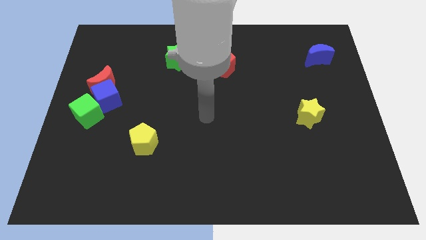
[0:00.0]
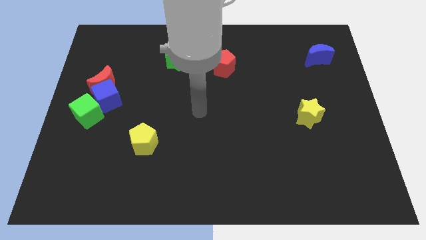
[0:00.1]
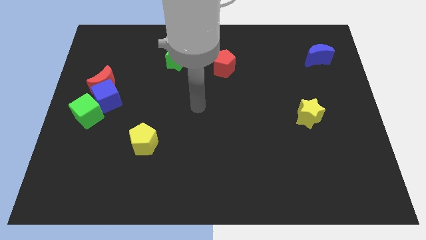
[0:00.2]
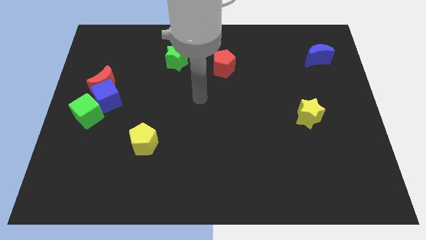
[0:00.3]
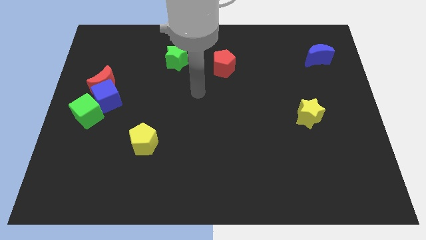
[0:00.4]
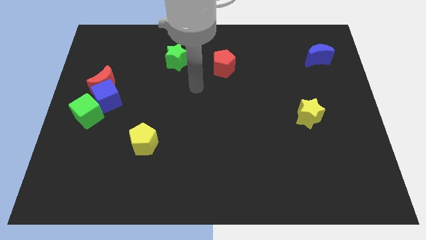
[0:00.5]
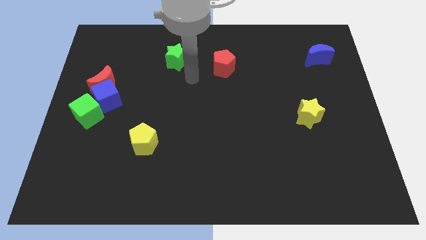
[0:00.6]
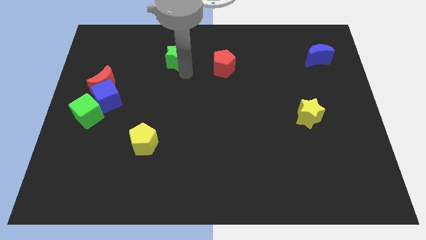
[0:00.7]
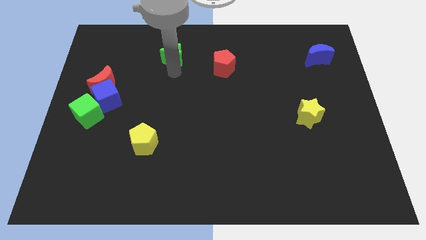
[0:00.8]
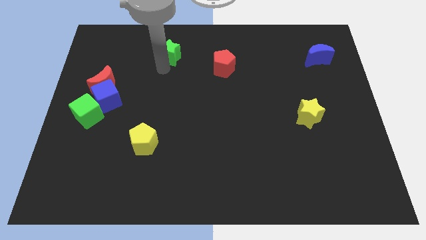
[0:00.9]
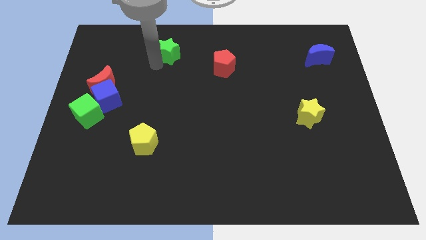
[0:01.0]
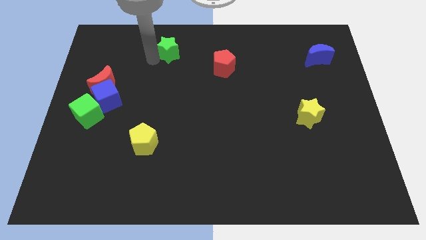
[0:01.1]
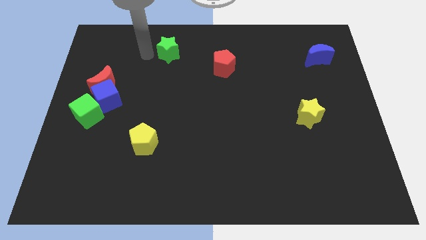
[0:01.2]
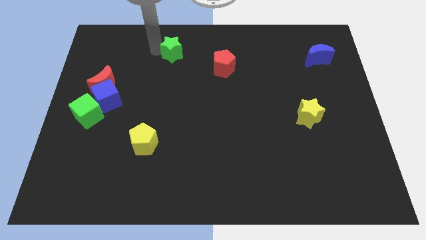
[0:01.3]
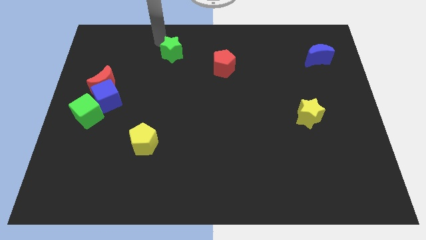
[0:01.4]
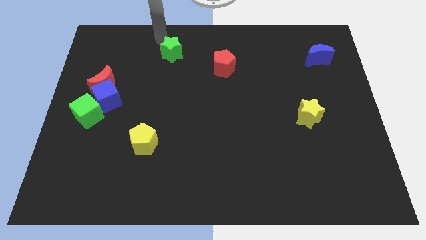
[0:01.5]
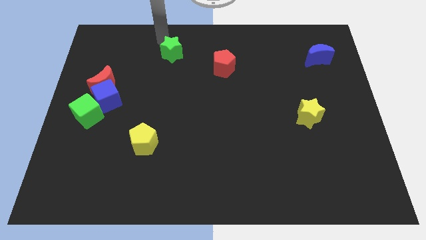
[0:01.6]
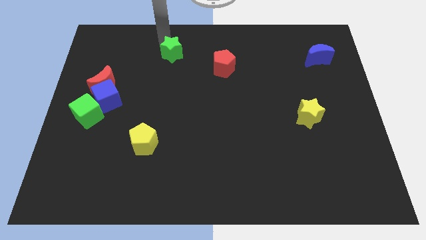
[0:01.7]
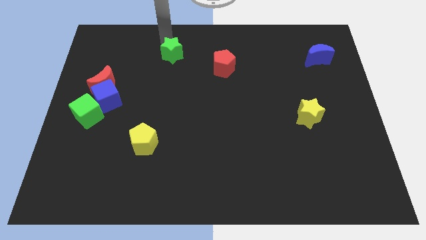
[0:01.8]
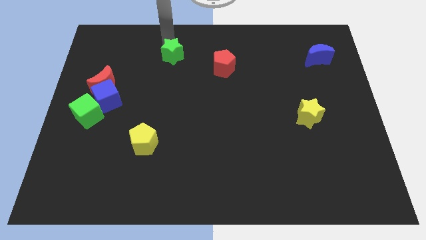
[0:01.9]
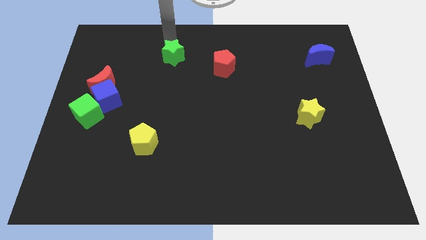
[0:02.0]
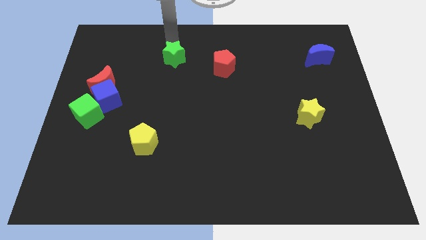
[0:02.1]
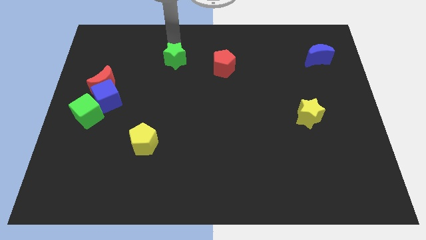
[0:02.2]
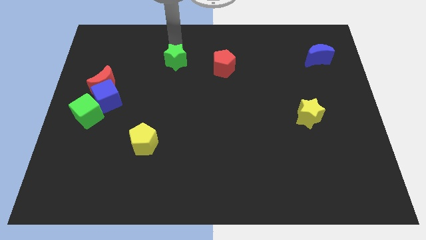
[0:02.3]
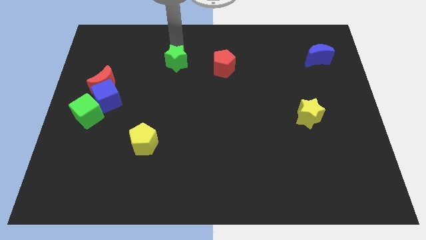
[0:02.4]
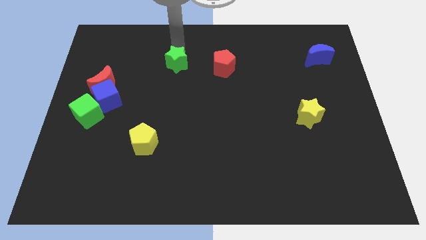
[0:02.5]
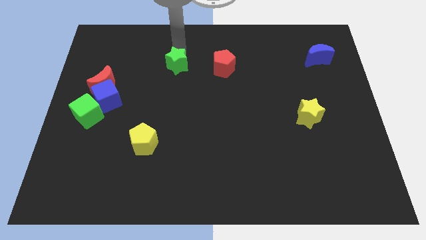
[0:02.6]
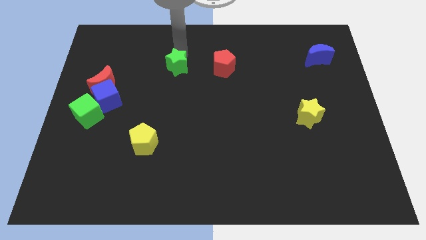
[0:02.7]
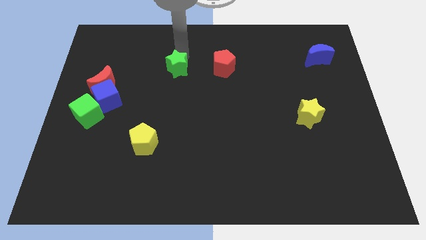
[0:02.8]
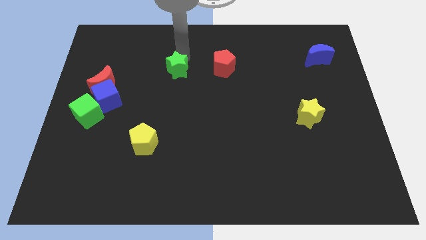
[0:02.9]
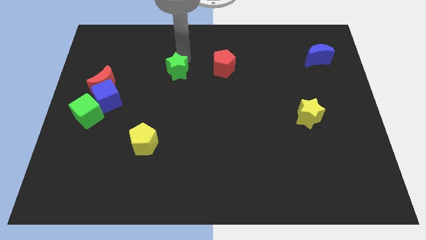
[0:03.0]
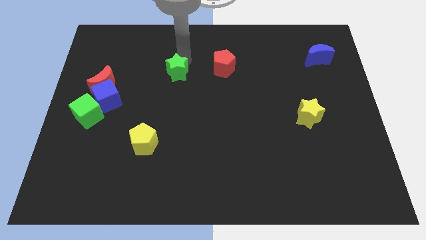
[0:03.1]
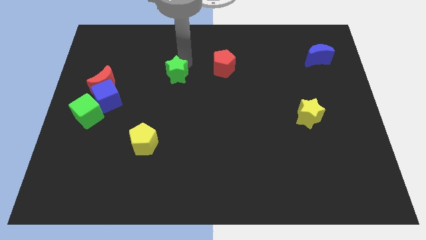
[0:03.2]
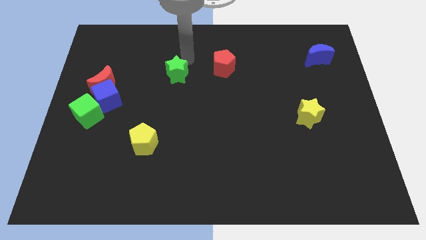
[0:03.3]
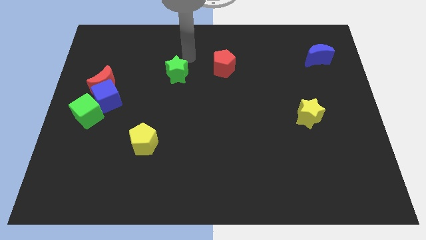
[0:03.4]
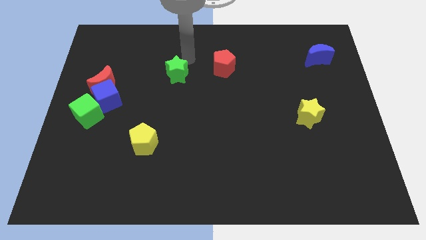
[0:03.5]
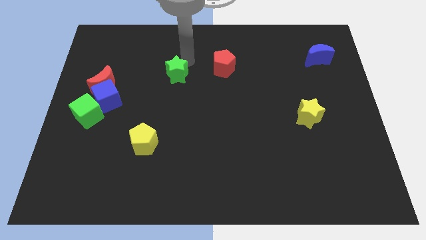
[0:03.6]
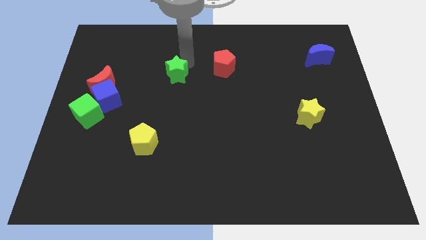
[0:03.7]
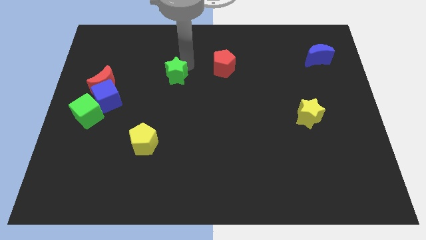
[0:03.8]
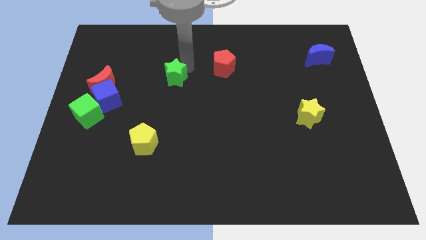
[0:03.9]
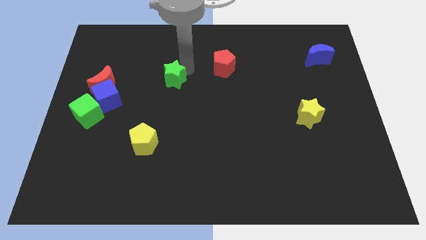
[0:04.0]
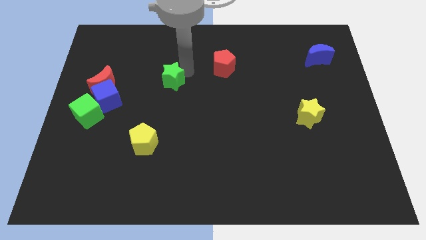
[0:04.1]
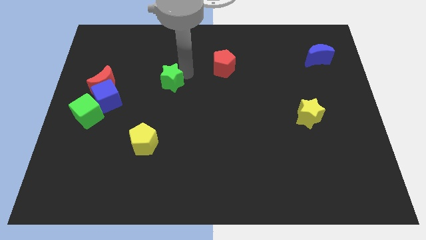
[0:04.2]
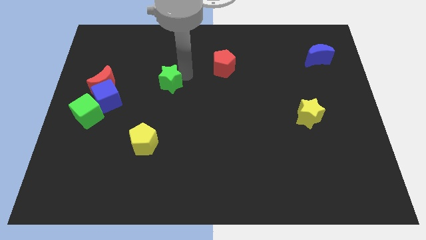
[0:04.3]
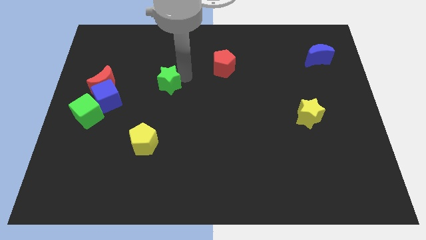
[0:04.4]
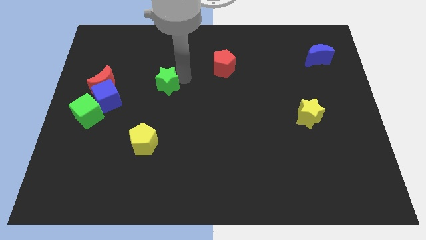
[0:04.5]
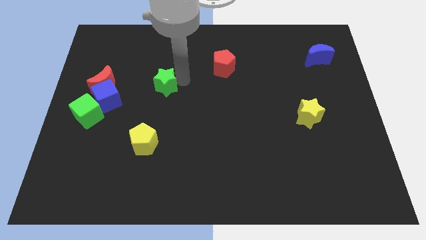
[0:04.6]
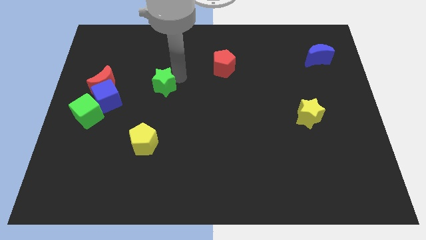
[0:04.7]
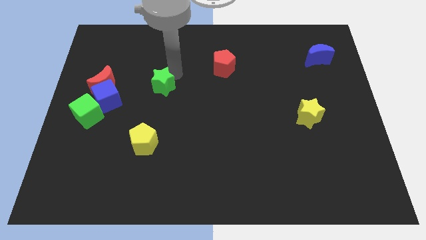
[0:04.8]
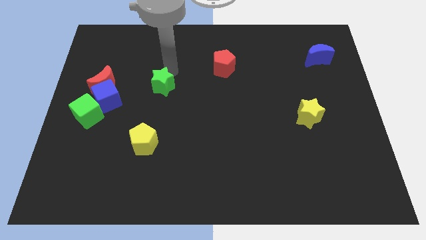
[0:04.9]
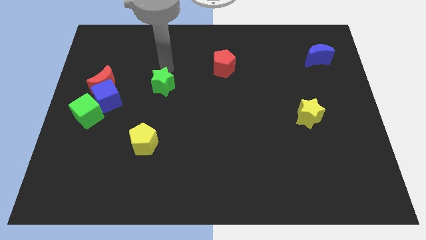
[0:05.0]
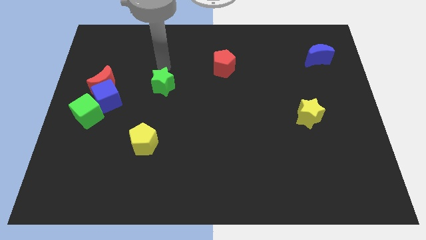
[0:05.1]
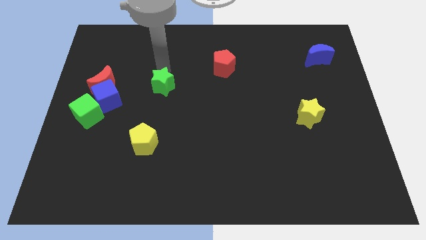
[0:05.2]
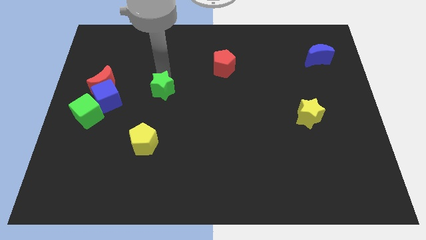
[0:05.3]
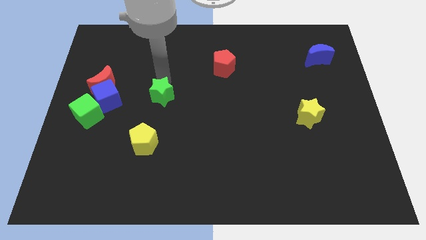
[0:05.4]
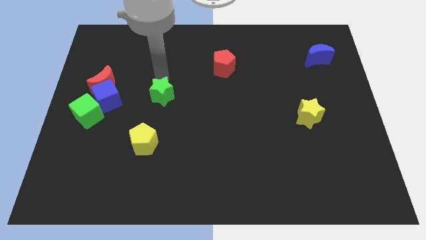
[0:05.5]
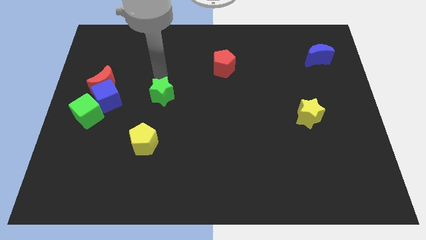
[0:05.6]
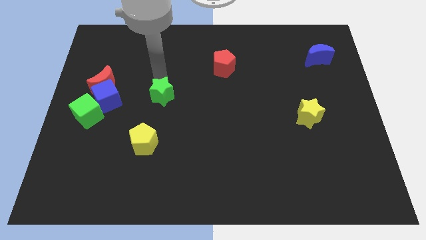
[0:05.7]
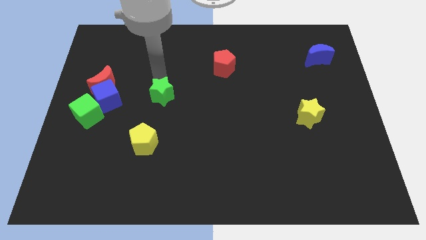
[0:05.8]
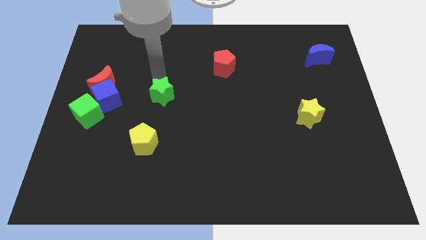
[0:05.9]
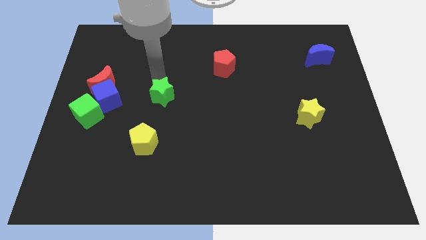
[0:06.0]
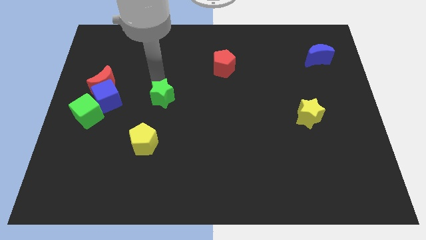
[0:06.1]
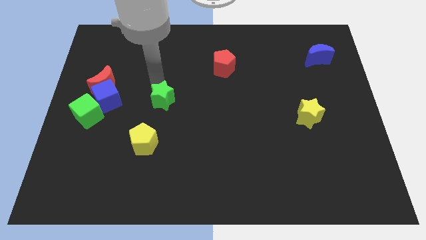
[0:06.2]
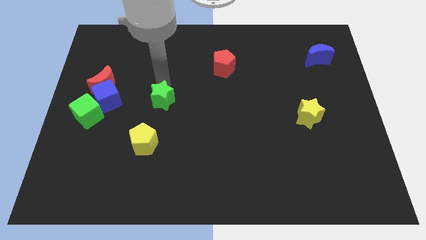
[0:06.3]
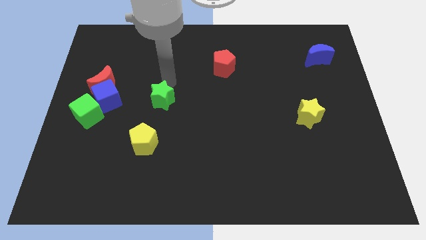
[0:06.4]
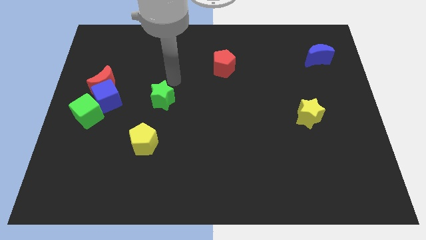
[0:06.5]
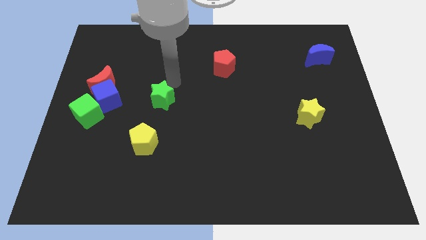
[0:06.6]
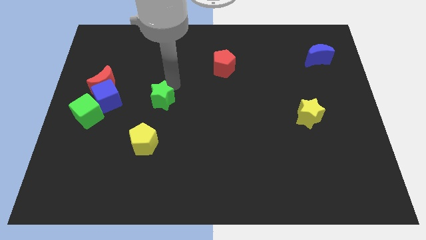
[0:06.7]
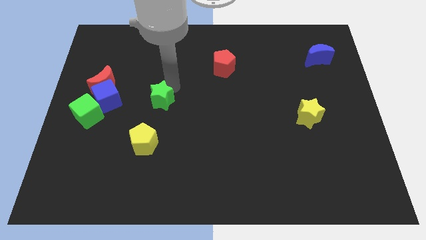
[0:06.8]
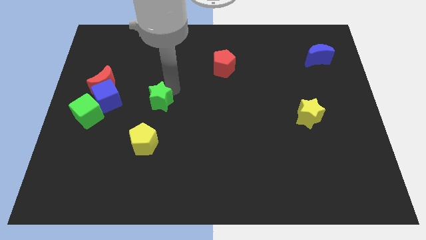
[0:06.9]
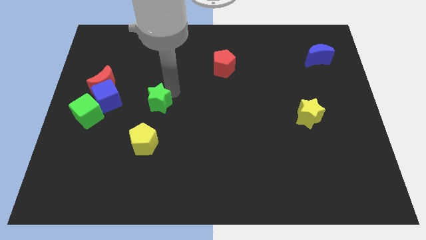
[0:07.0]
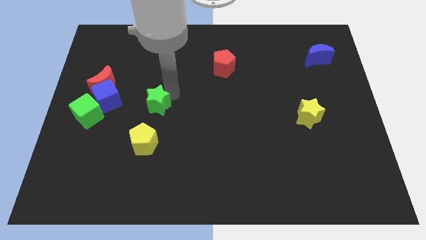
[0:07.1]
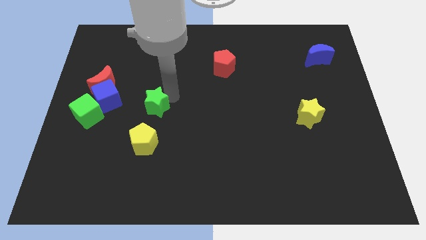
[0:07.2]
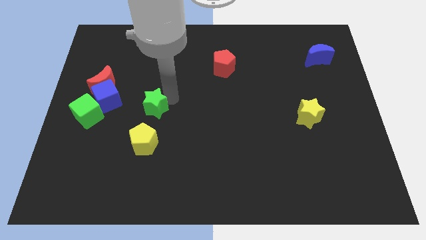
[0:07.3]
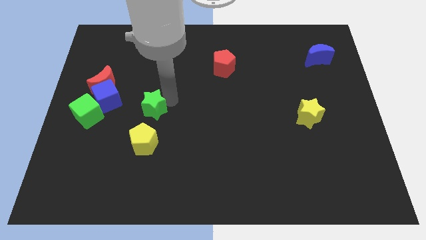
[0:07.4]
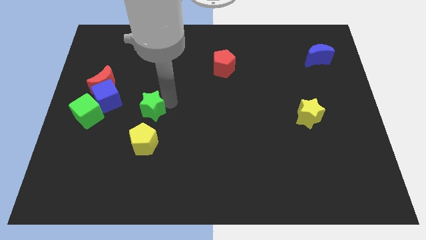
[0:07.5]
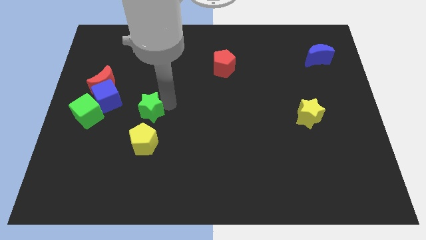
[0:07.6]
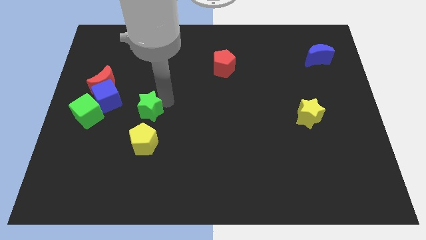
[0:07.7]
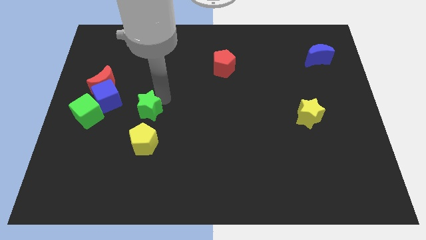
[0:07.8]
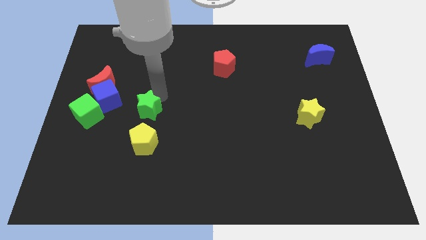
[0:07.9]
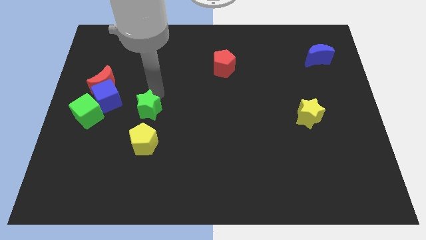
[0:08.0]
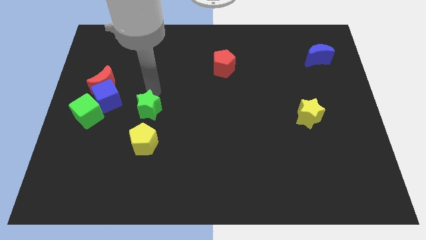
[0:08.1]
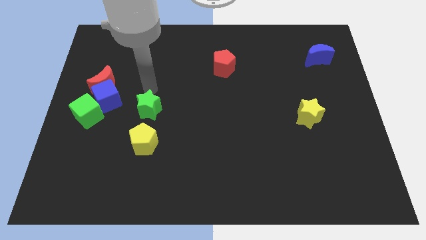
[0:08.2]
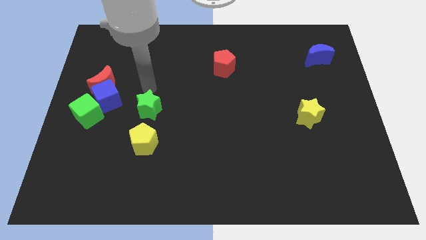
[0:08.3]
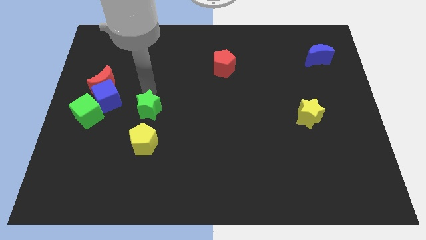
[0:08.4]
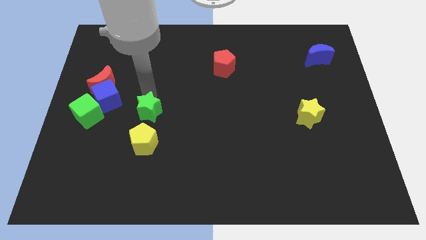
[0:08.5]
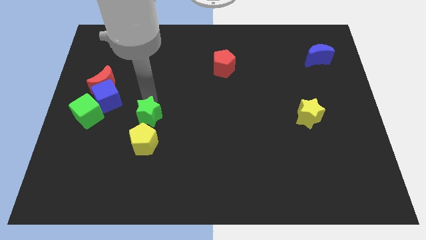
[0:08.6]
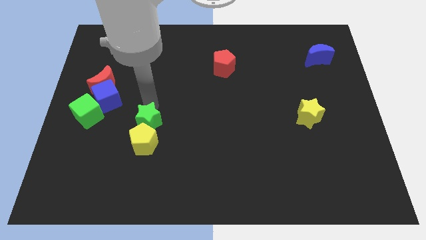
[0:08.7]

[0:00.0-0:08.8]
slide the green star to the yellow pentagon
